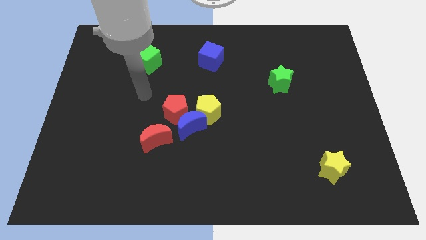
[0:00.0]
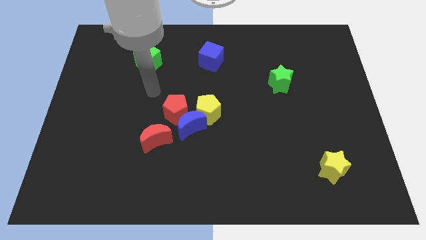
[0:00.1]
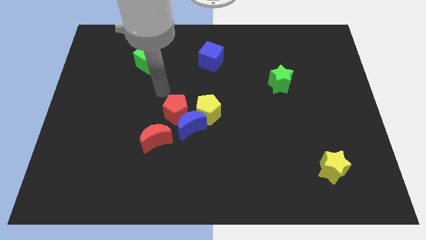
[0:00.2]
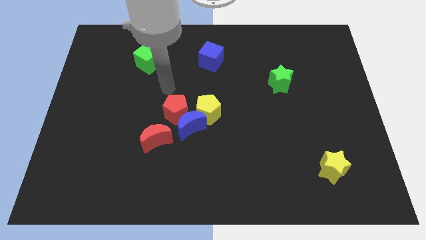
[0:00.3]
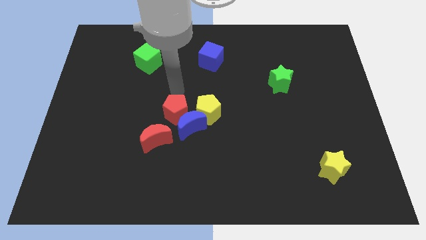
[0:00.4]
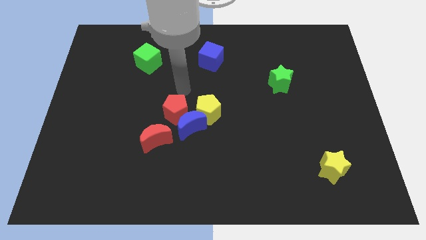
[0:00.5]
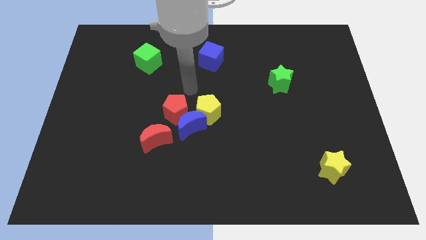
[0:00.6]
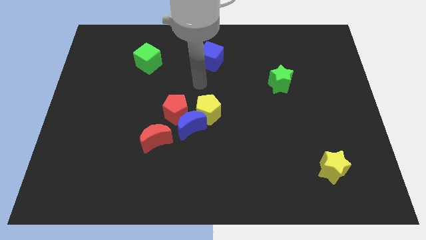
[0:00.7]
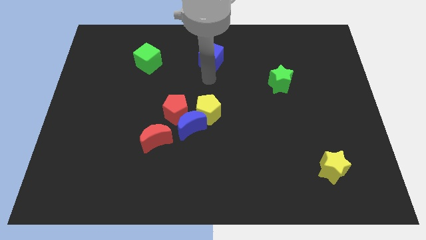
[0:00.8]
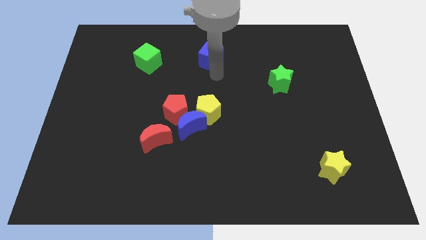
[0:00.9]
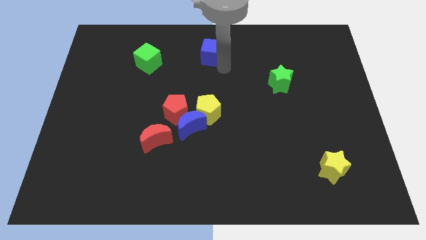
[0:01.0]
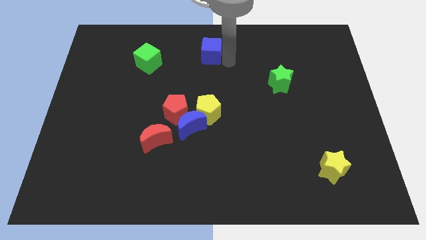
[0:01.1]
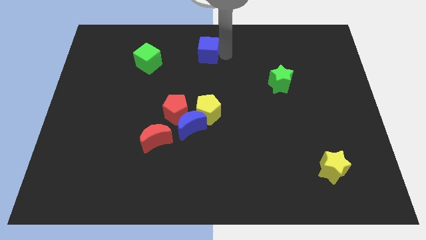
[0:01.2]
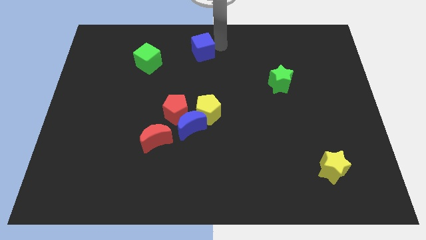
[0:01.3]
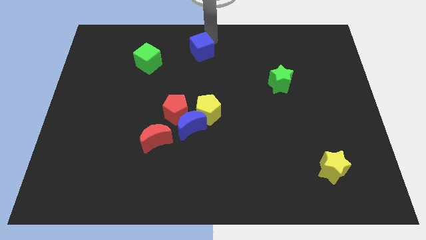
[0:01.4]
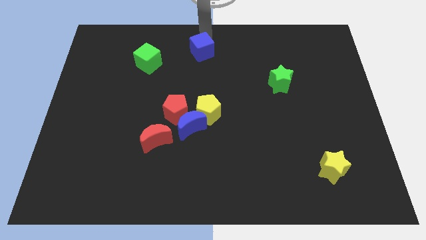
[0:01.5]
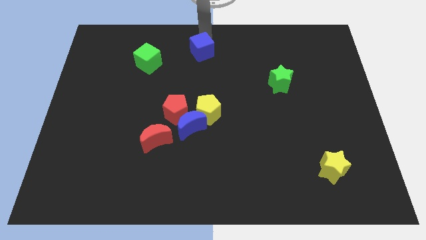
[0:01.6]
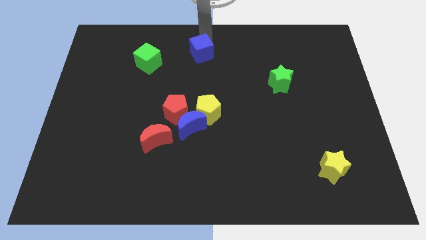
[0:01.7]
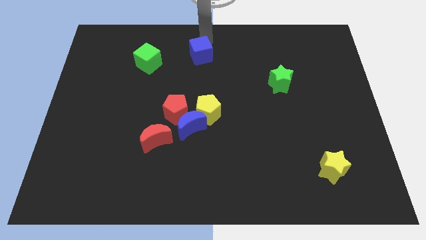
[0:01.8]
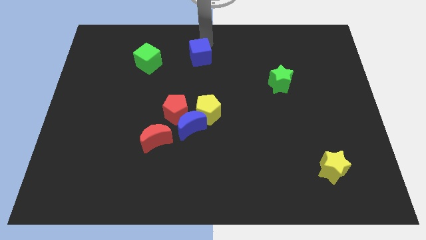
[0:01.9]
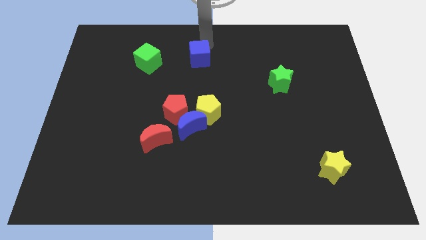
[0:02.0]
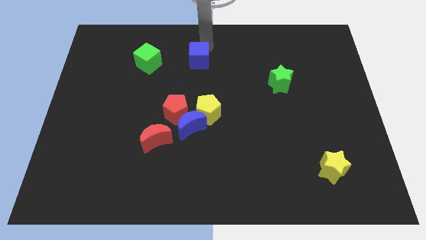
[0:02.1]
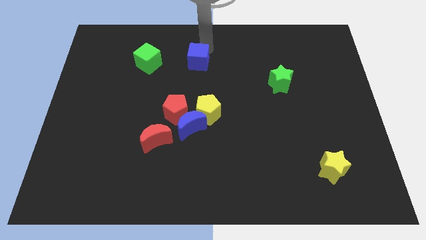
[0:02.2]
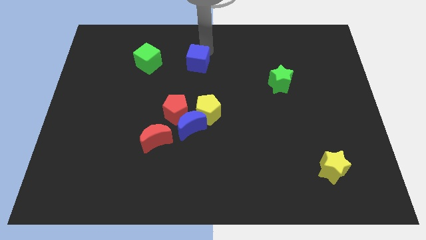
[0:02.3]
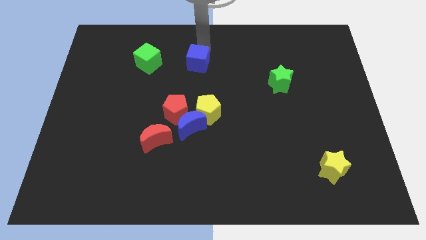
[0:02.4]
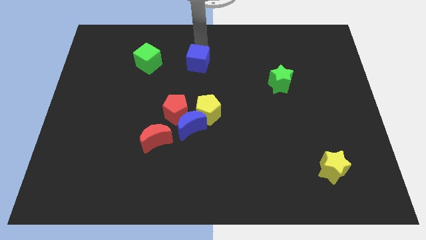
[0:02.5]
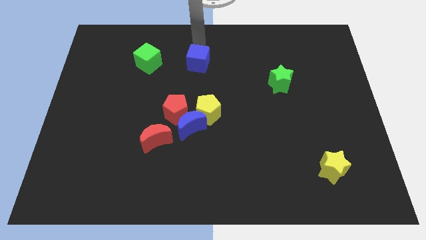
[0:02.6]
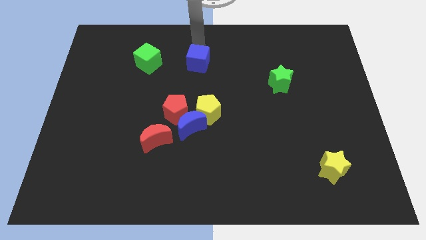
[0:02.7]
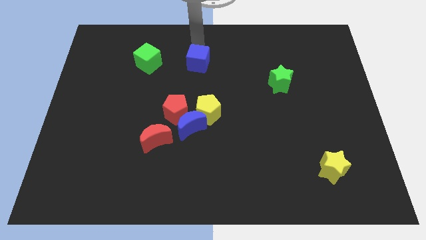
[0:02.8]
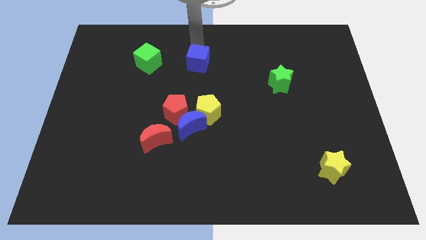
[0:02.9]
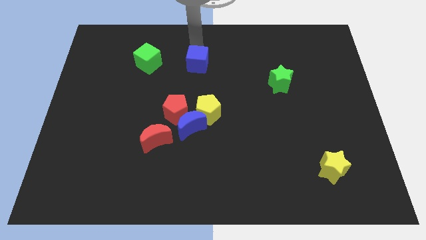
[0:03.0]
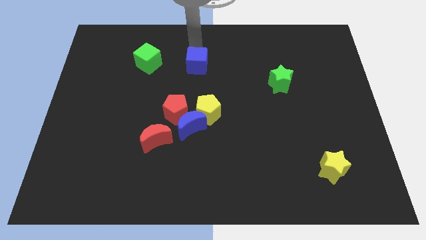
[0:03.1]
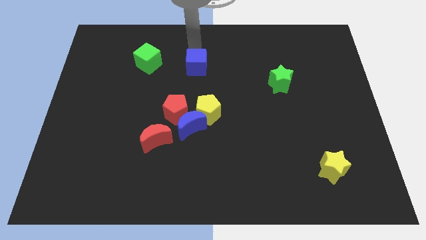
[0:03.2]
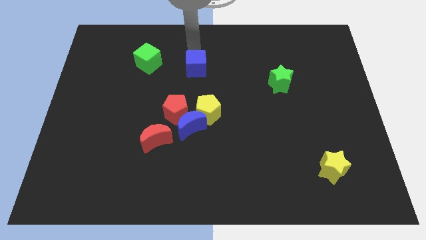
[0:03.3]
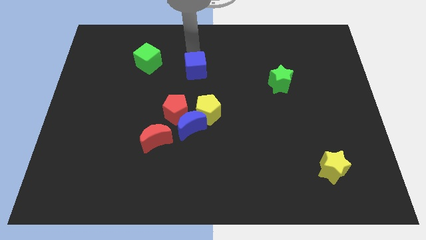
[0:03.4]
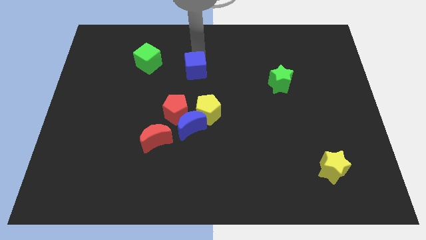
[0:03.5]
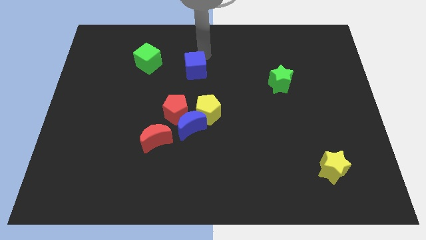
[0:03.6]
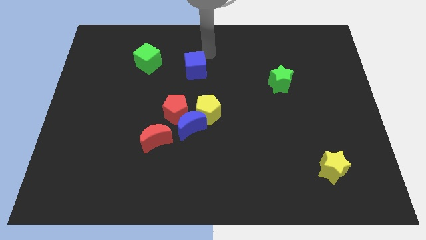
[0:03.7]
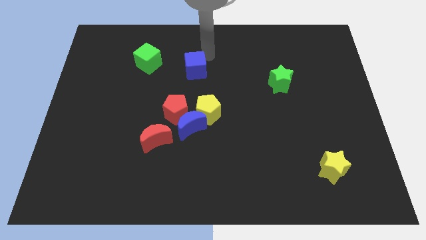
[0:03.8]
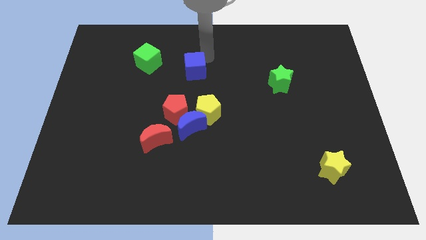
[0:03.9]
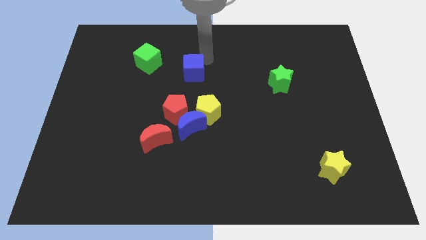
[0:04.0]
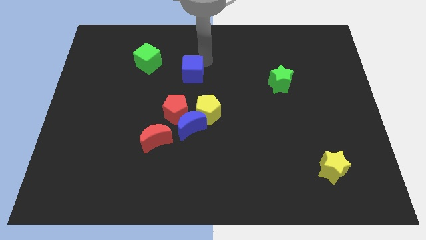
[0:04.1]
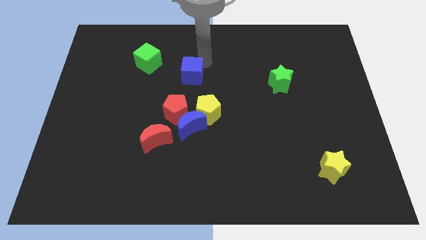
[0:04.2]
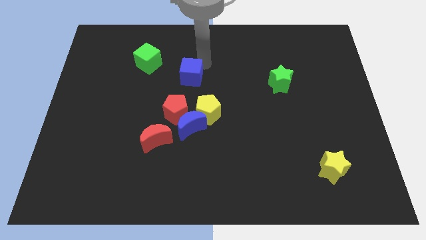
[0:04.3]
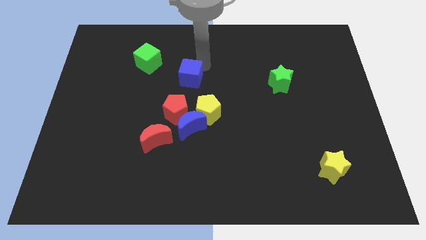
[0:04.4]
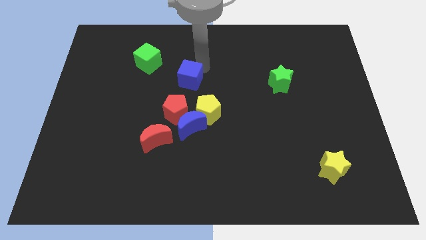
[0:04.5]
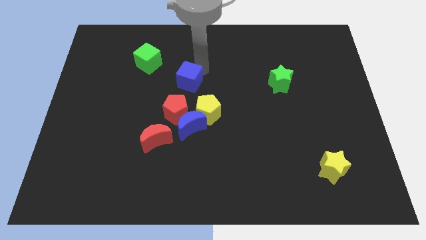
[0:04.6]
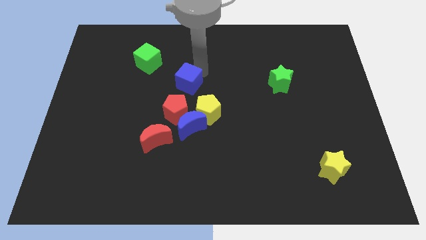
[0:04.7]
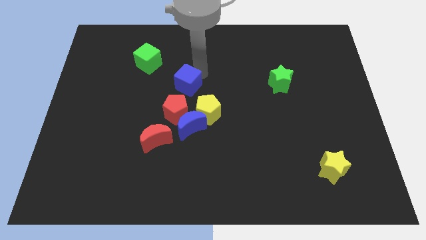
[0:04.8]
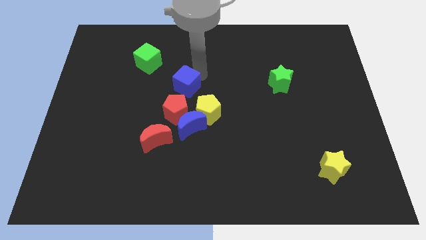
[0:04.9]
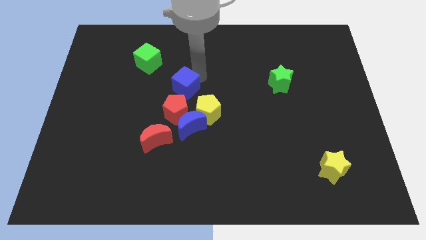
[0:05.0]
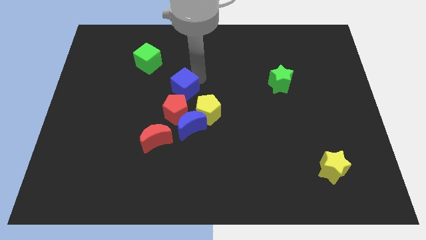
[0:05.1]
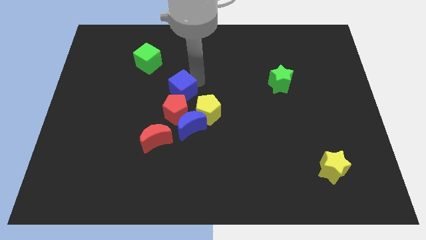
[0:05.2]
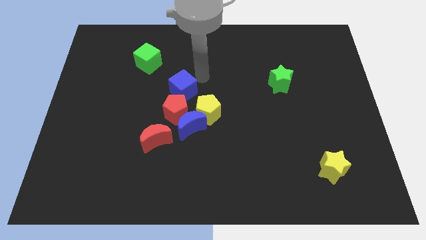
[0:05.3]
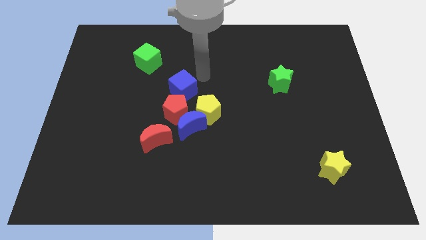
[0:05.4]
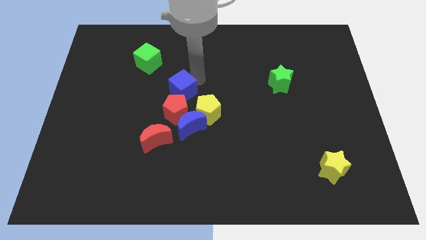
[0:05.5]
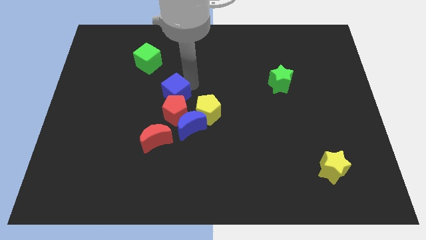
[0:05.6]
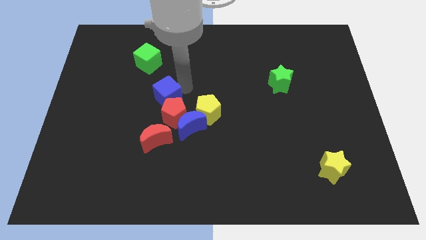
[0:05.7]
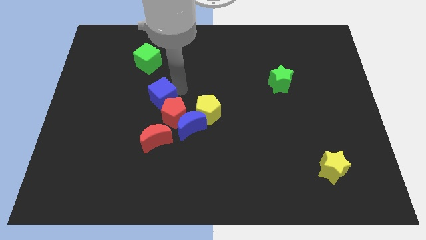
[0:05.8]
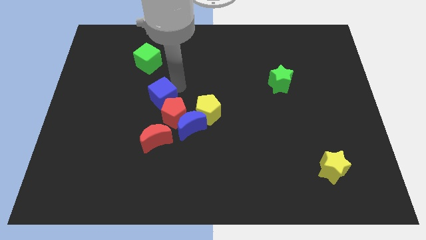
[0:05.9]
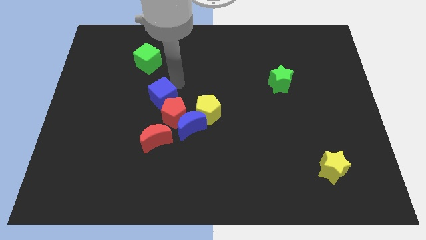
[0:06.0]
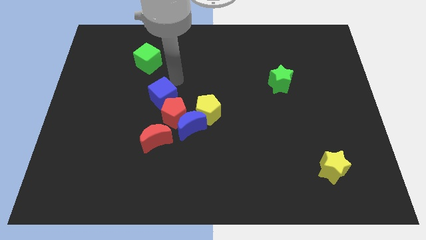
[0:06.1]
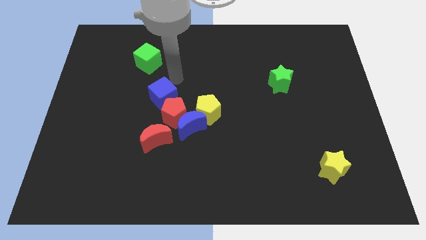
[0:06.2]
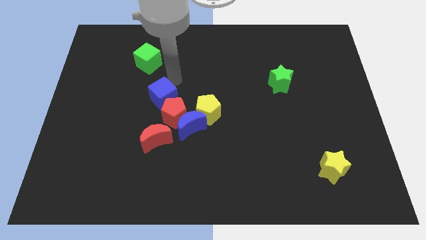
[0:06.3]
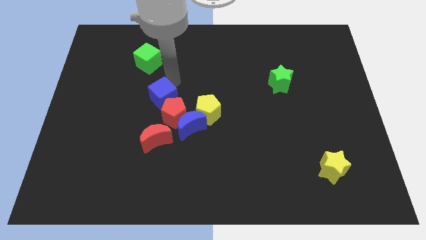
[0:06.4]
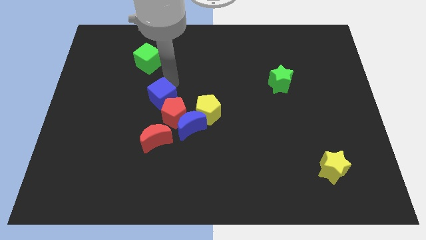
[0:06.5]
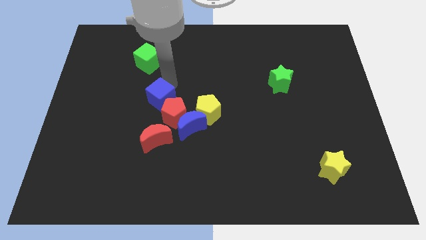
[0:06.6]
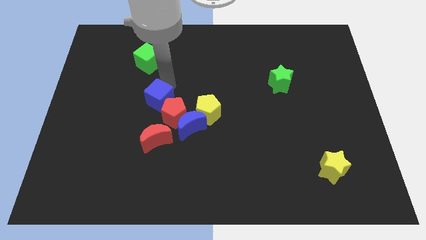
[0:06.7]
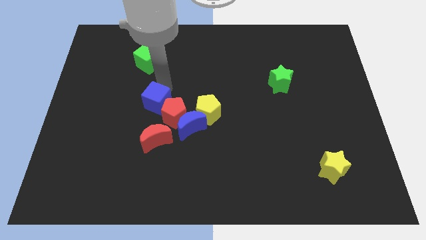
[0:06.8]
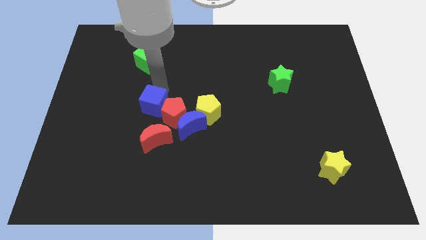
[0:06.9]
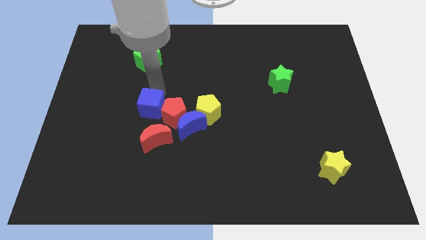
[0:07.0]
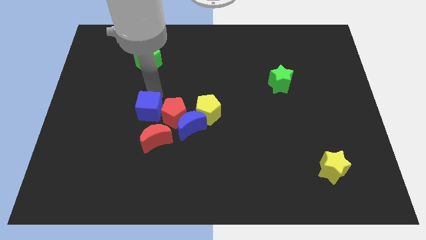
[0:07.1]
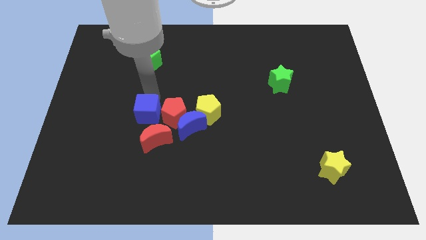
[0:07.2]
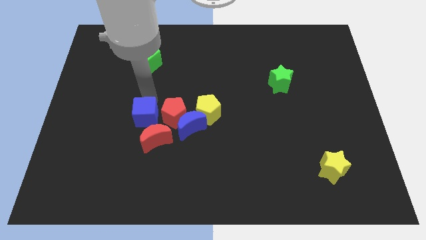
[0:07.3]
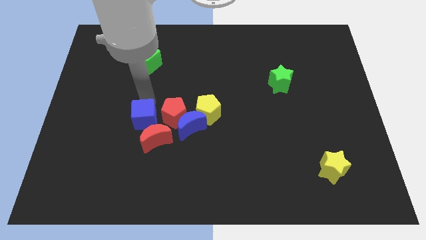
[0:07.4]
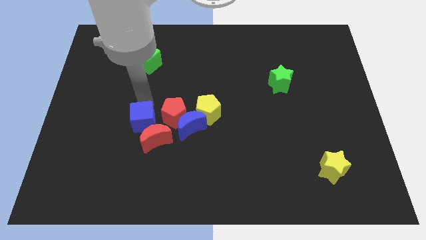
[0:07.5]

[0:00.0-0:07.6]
put the blue cube towards the red moon
